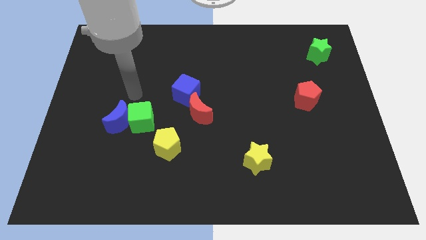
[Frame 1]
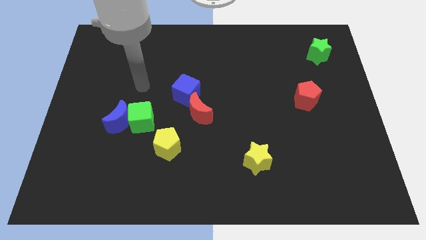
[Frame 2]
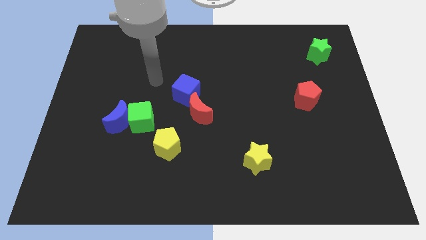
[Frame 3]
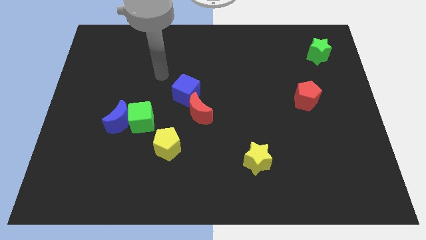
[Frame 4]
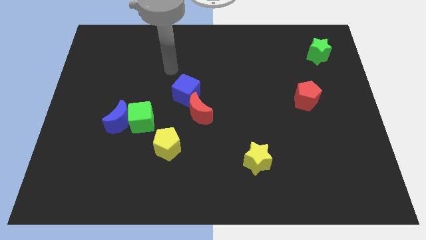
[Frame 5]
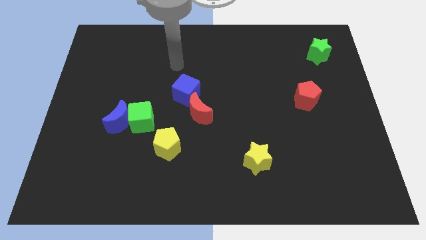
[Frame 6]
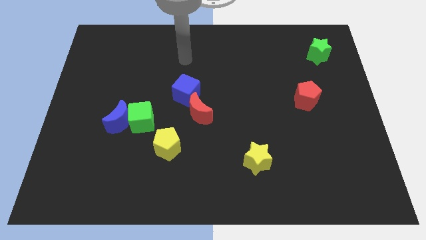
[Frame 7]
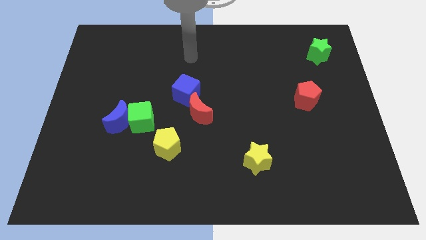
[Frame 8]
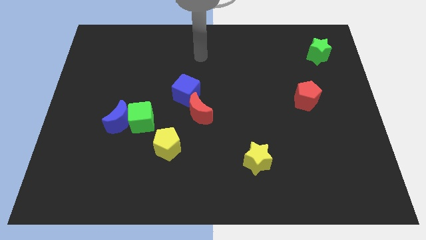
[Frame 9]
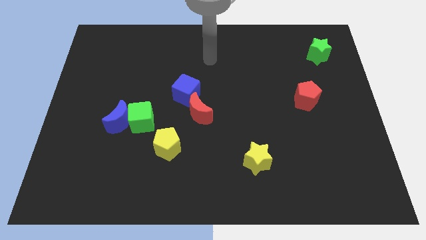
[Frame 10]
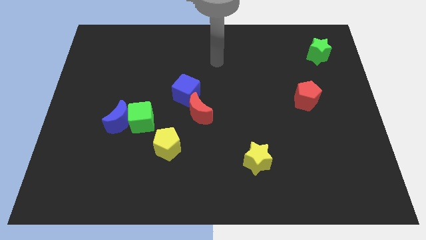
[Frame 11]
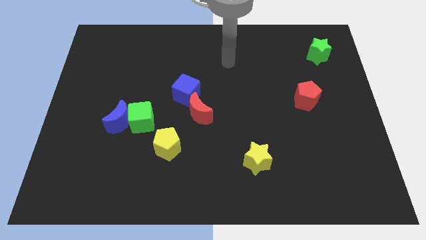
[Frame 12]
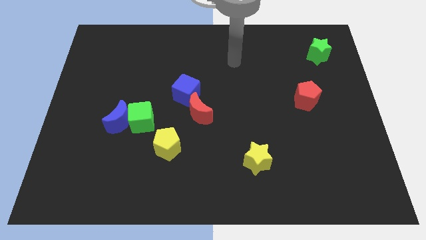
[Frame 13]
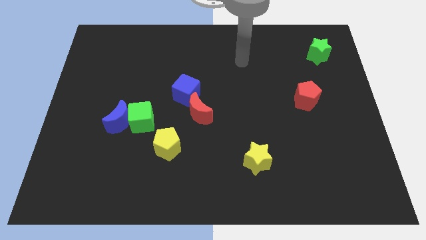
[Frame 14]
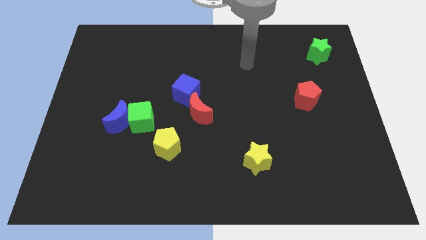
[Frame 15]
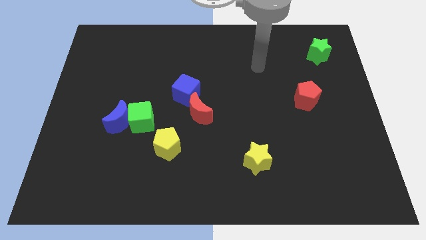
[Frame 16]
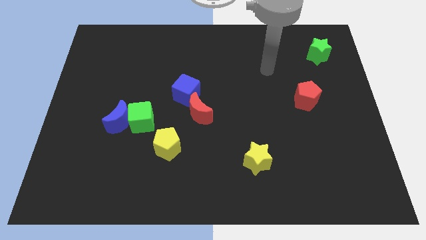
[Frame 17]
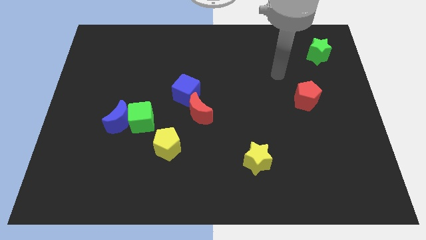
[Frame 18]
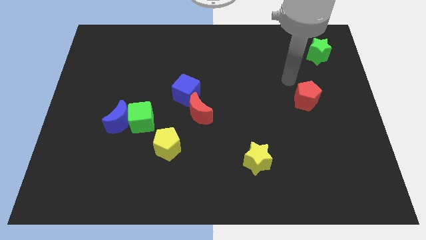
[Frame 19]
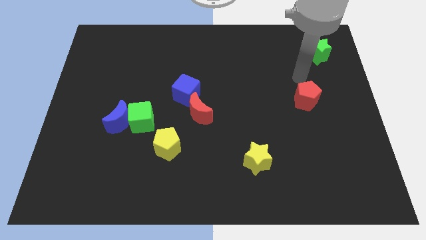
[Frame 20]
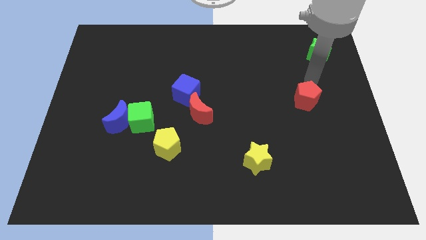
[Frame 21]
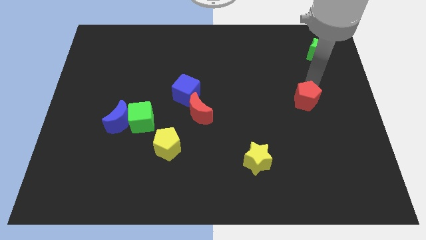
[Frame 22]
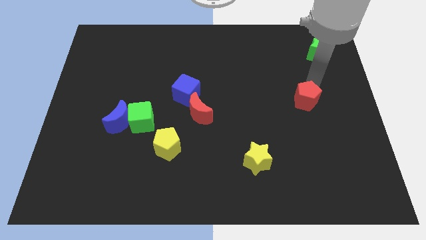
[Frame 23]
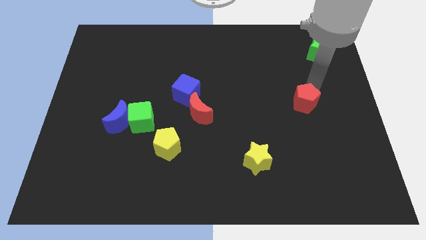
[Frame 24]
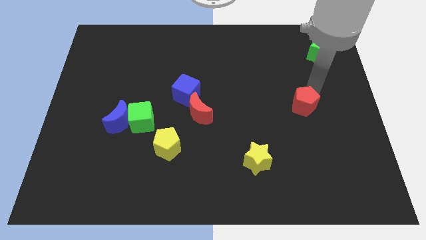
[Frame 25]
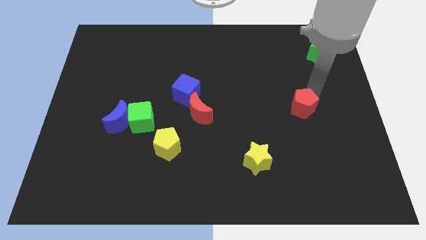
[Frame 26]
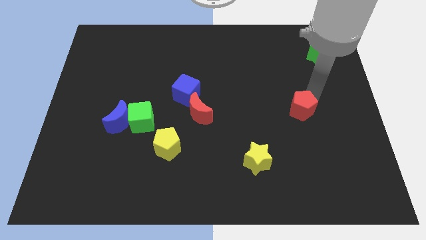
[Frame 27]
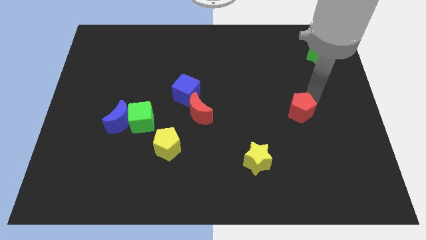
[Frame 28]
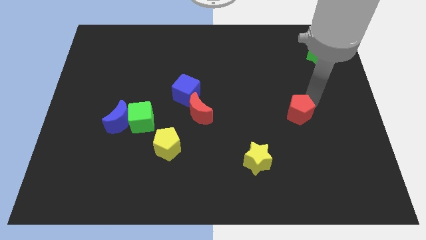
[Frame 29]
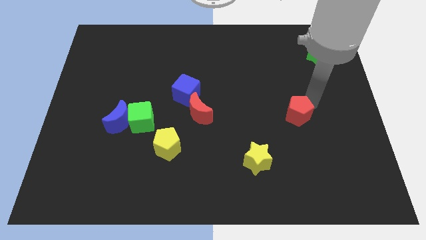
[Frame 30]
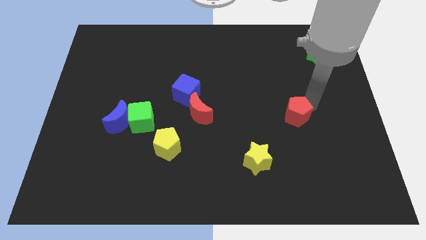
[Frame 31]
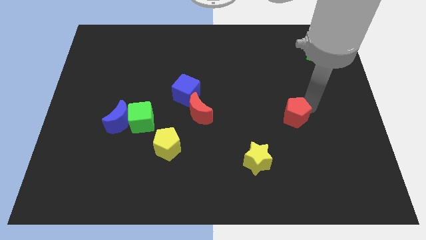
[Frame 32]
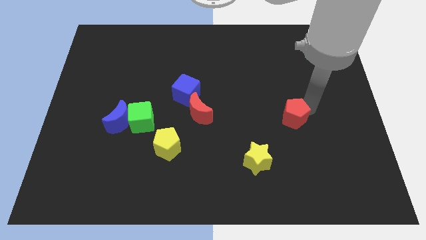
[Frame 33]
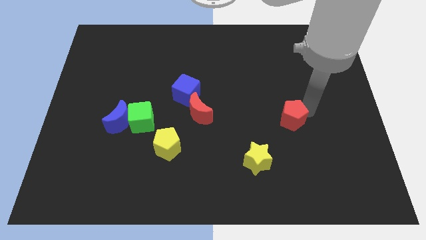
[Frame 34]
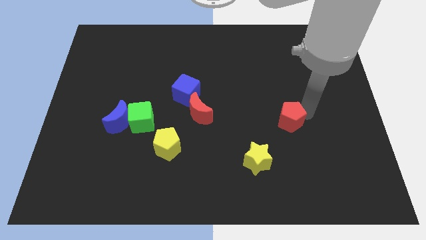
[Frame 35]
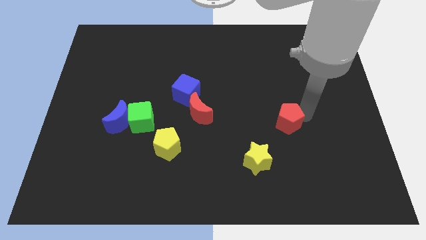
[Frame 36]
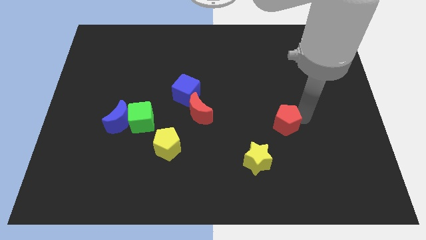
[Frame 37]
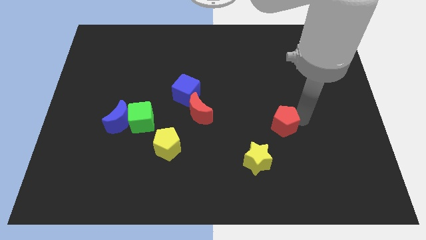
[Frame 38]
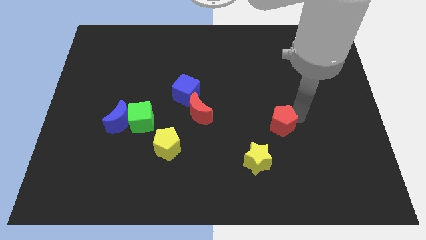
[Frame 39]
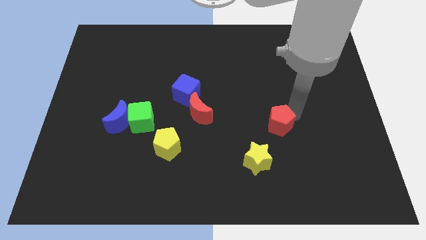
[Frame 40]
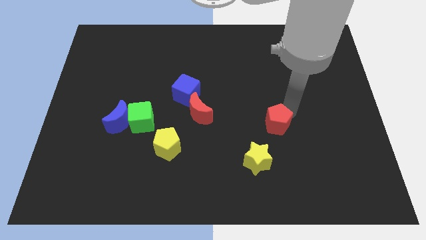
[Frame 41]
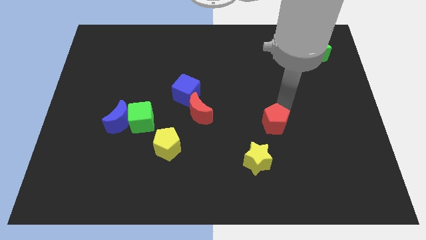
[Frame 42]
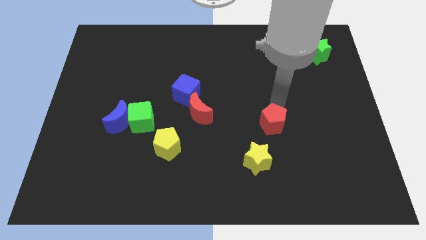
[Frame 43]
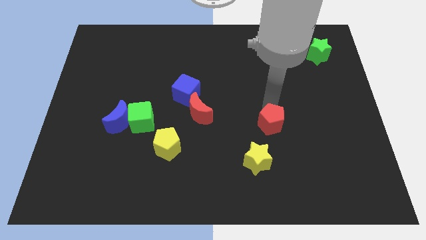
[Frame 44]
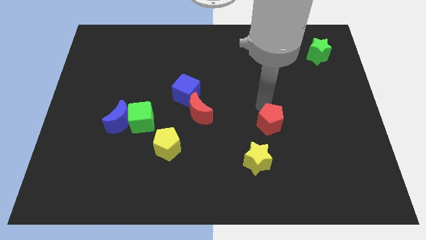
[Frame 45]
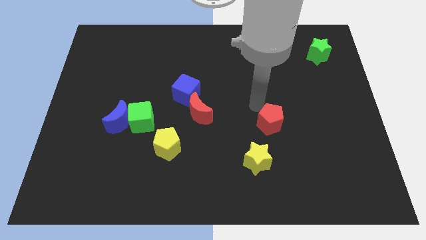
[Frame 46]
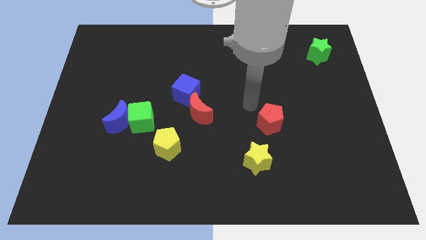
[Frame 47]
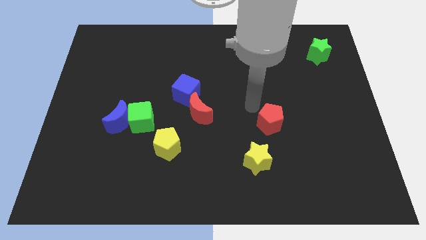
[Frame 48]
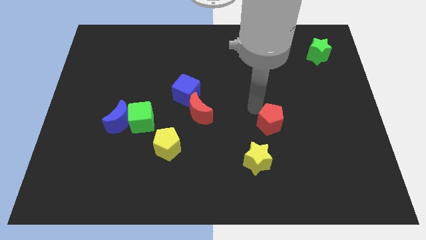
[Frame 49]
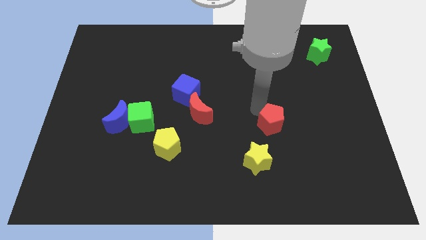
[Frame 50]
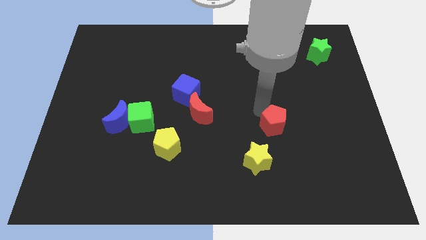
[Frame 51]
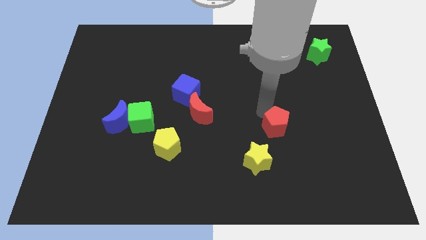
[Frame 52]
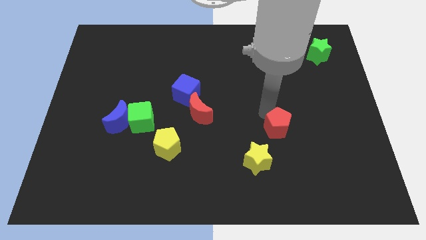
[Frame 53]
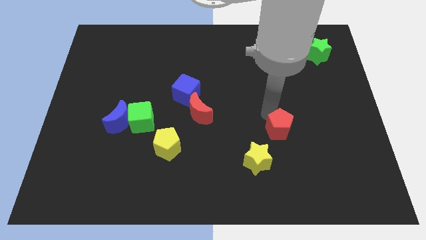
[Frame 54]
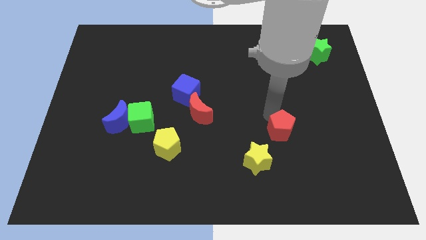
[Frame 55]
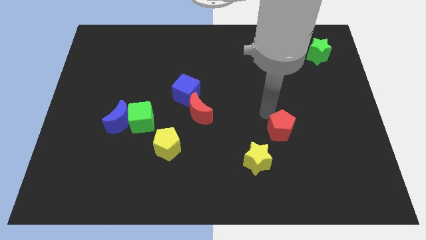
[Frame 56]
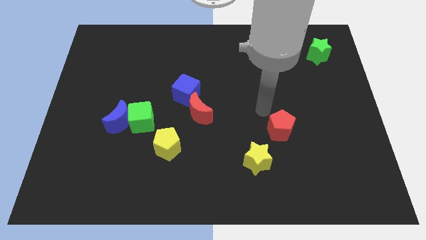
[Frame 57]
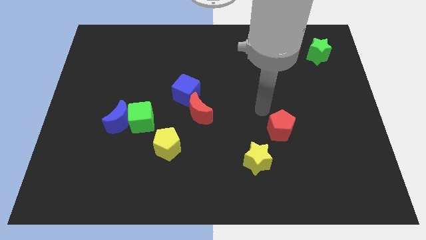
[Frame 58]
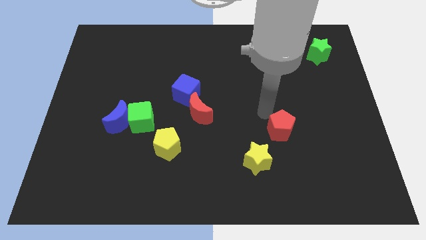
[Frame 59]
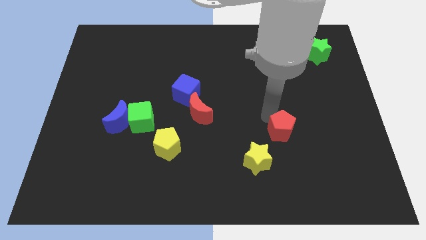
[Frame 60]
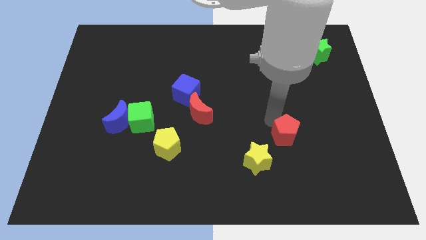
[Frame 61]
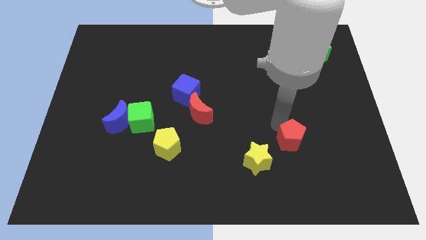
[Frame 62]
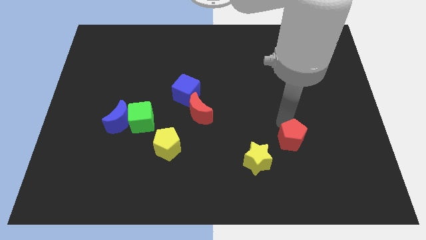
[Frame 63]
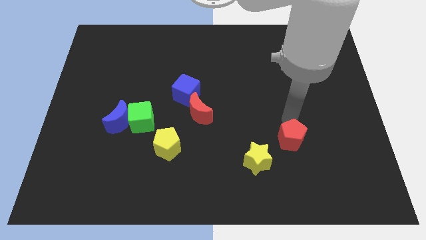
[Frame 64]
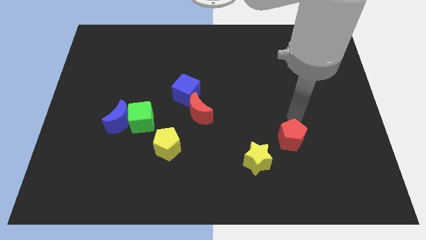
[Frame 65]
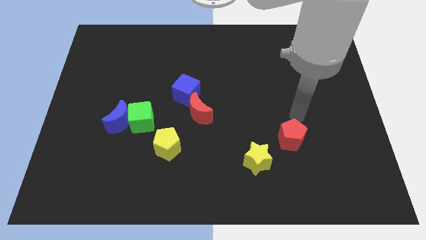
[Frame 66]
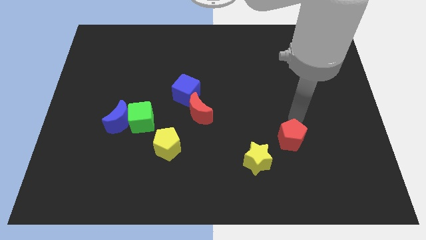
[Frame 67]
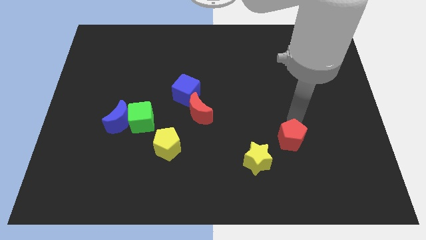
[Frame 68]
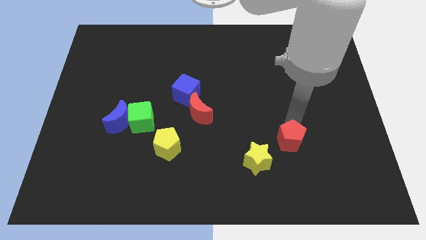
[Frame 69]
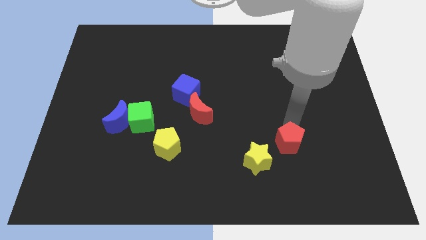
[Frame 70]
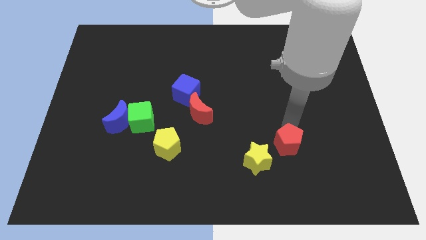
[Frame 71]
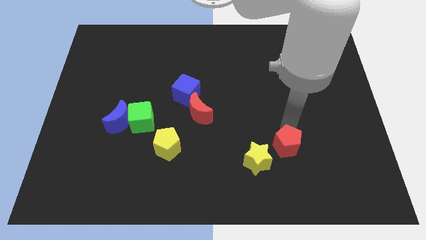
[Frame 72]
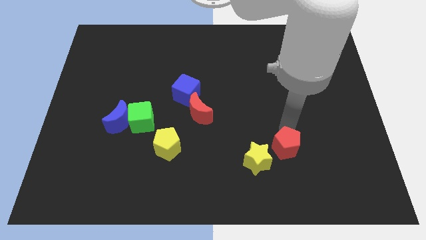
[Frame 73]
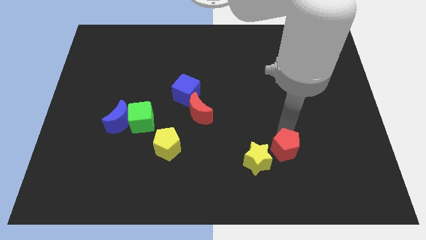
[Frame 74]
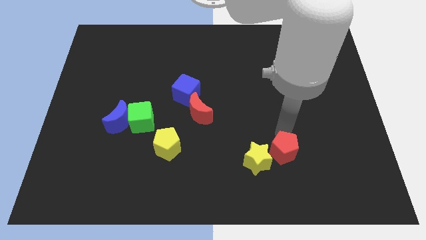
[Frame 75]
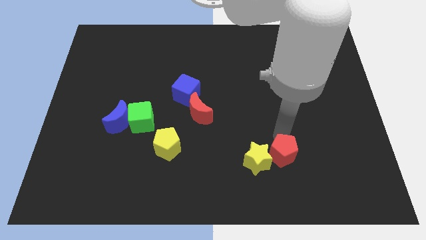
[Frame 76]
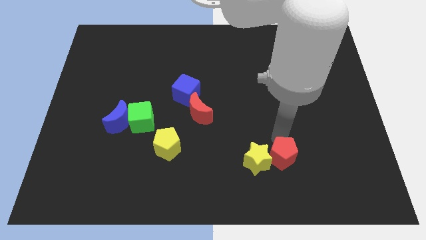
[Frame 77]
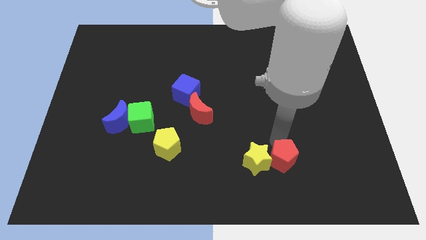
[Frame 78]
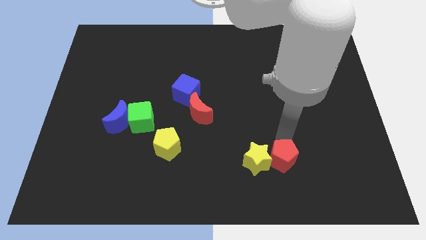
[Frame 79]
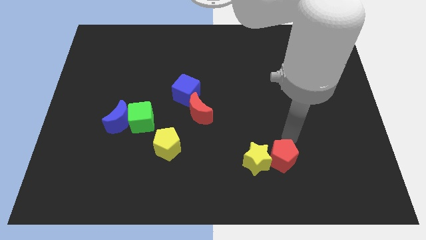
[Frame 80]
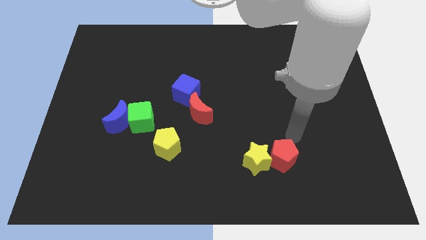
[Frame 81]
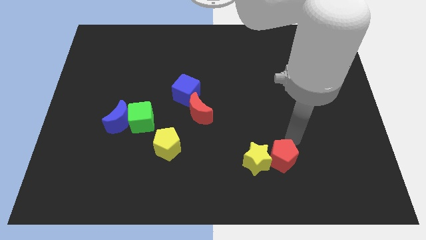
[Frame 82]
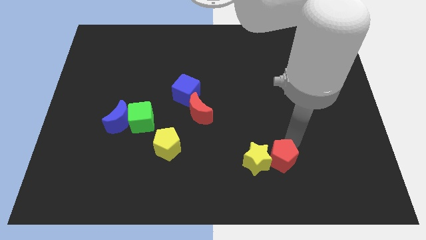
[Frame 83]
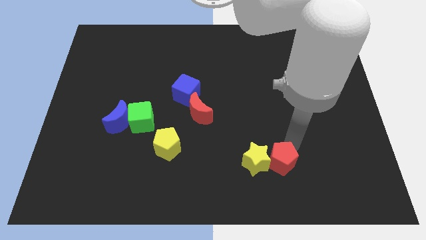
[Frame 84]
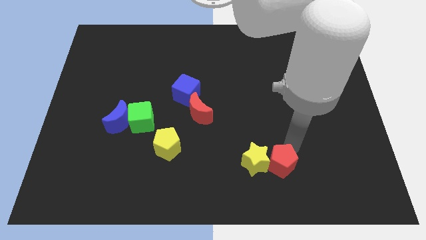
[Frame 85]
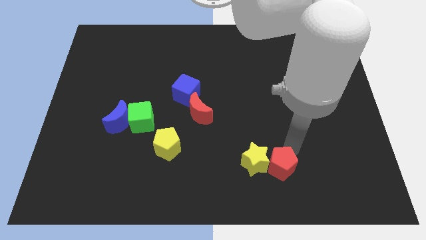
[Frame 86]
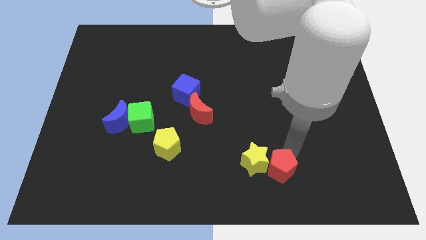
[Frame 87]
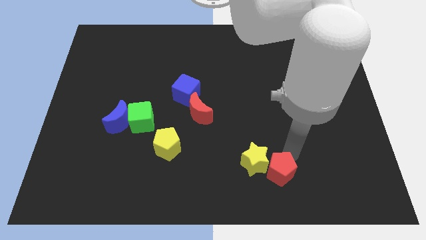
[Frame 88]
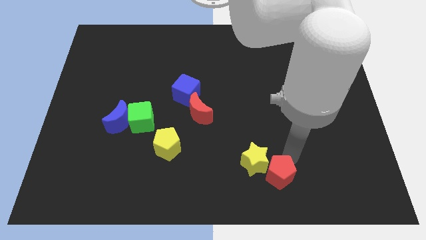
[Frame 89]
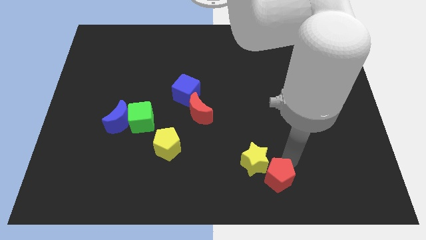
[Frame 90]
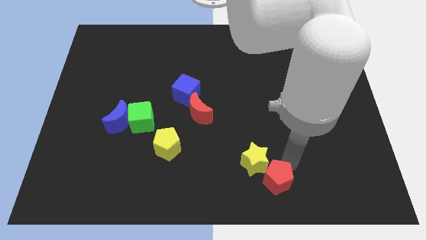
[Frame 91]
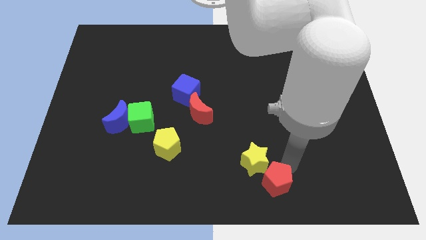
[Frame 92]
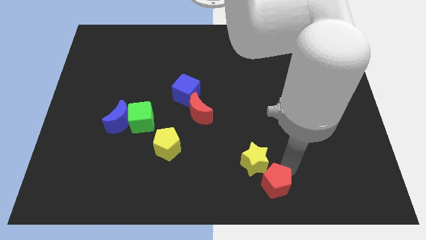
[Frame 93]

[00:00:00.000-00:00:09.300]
put the red pentagon to the bottom side
